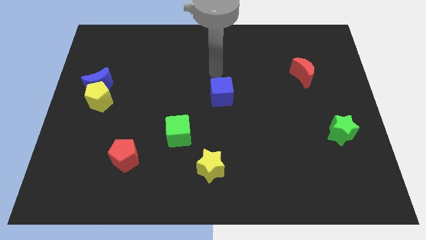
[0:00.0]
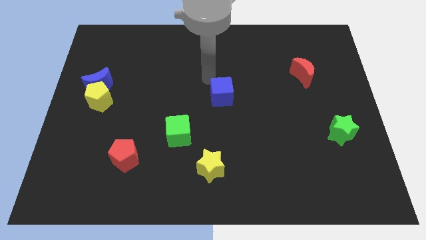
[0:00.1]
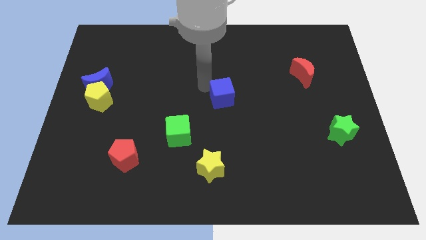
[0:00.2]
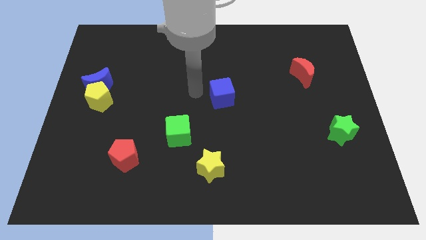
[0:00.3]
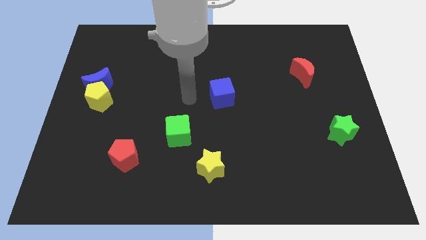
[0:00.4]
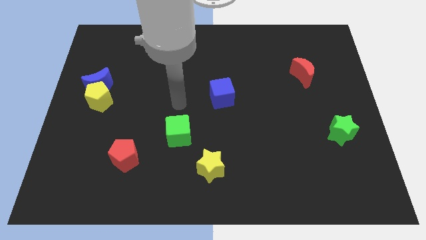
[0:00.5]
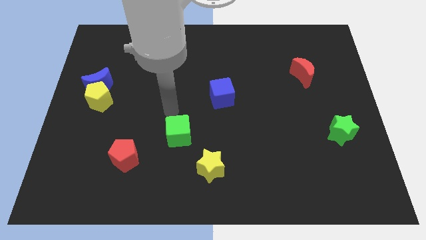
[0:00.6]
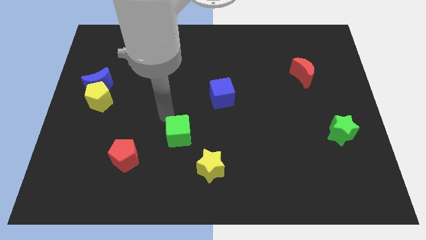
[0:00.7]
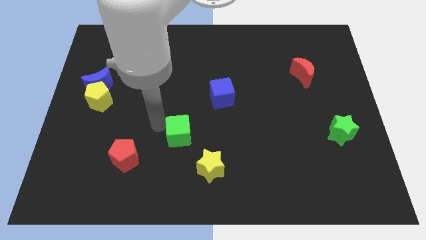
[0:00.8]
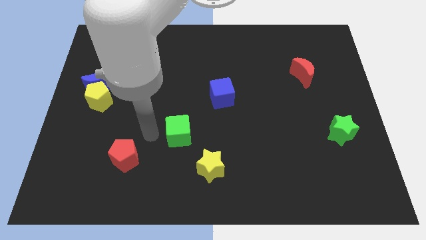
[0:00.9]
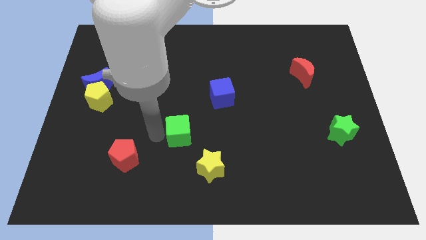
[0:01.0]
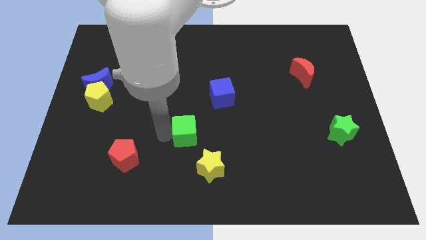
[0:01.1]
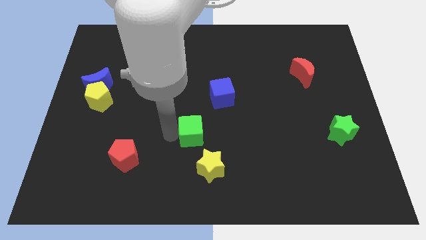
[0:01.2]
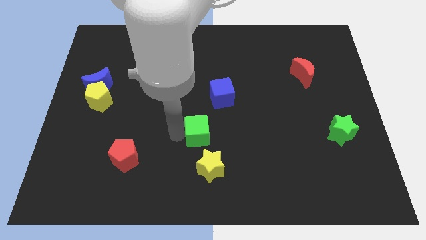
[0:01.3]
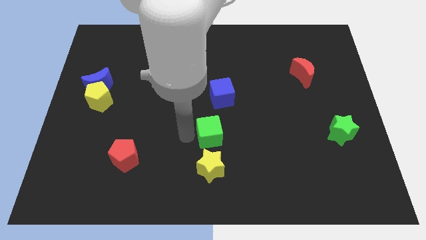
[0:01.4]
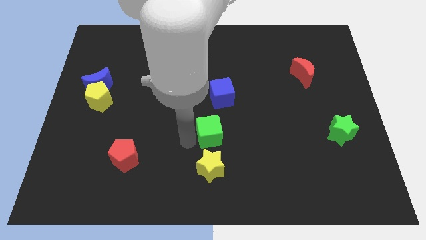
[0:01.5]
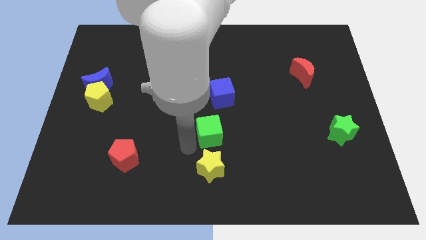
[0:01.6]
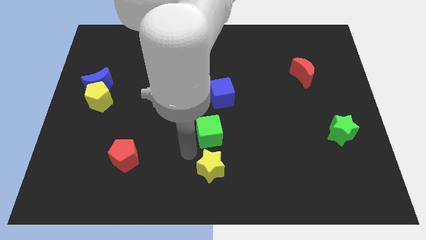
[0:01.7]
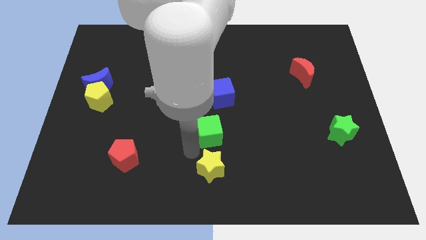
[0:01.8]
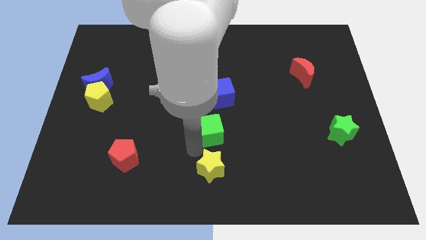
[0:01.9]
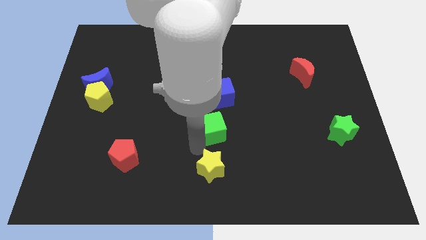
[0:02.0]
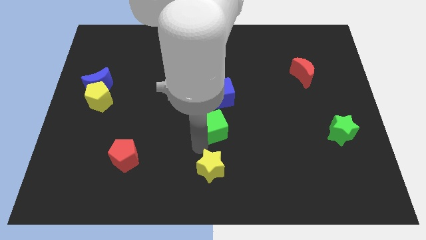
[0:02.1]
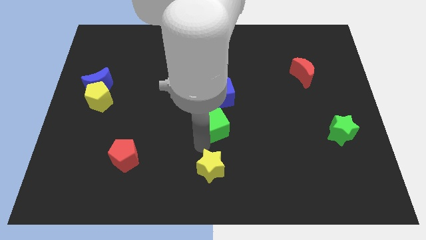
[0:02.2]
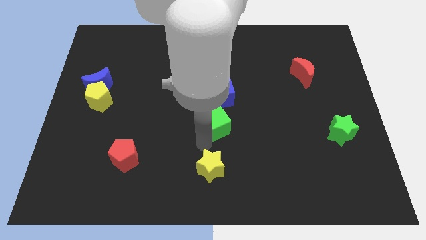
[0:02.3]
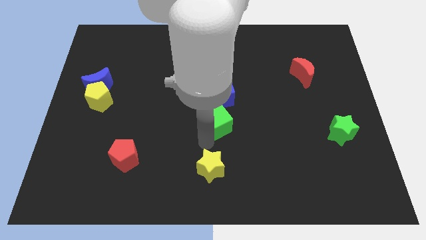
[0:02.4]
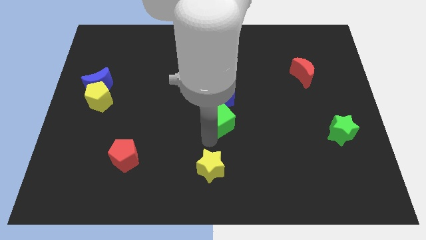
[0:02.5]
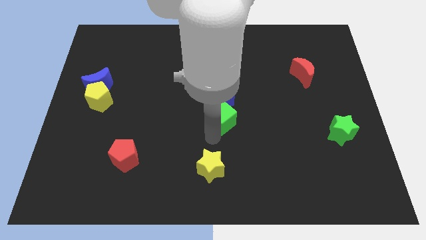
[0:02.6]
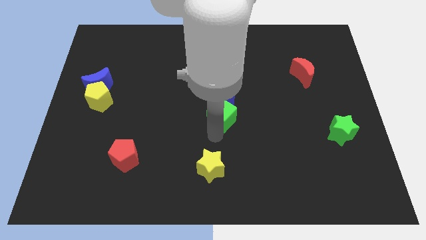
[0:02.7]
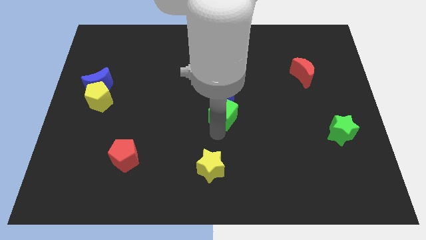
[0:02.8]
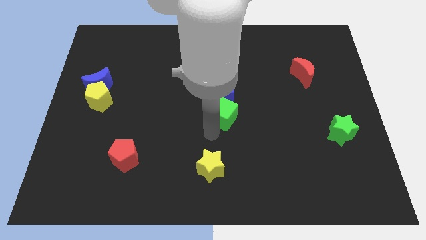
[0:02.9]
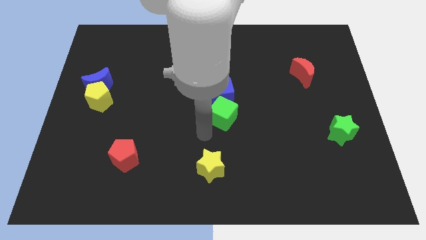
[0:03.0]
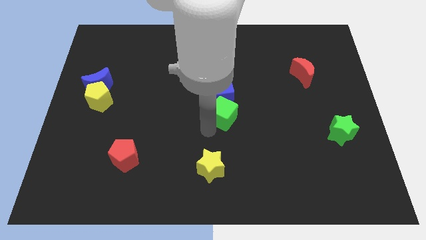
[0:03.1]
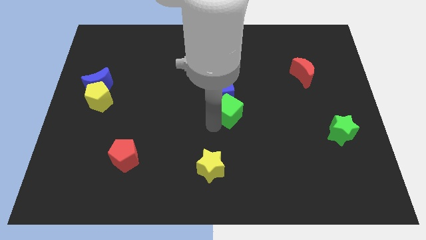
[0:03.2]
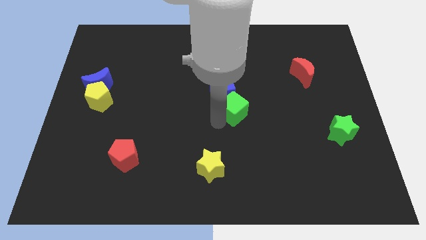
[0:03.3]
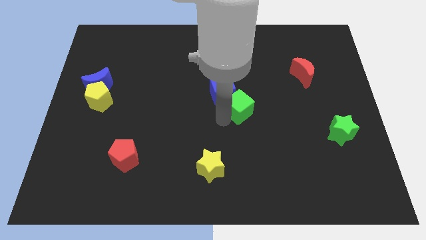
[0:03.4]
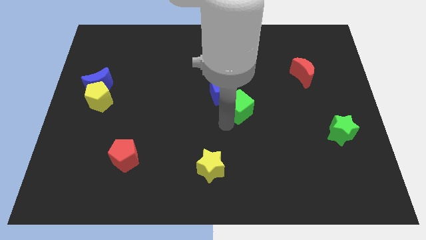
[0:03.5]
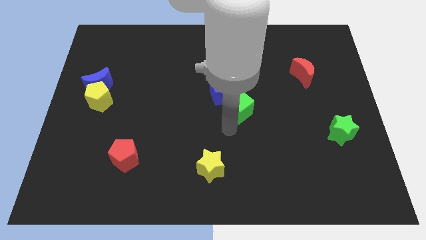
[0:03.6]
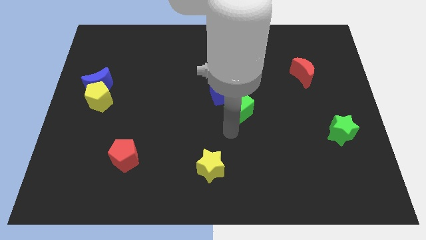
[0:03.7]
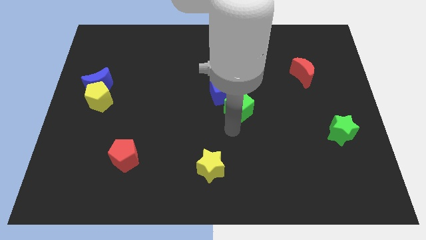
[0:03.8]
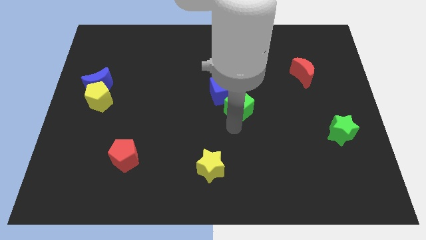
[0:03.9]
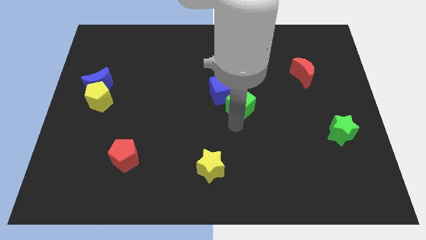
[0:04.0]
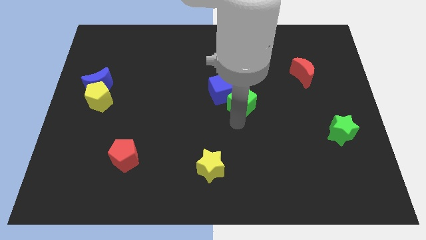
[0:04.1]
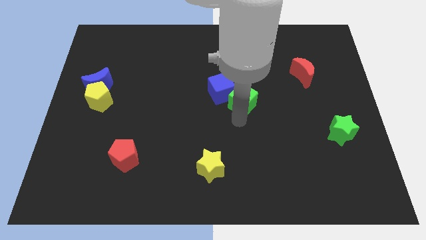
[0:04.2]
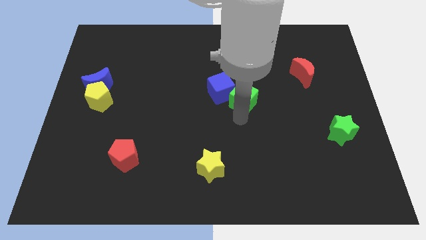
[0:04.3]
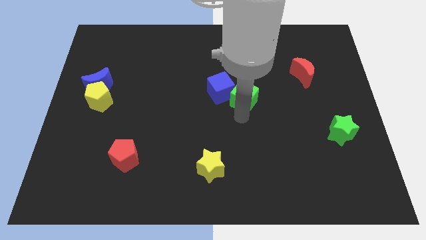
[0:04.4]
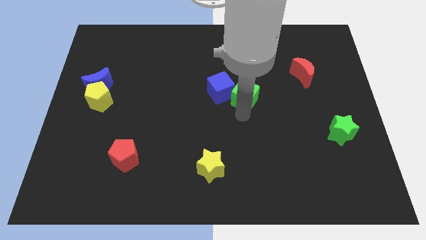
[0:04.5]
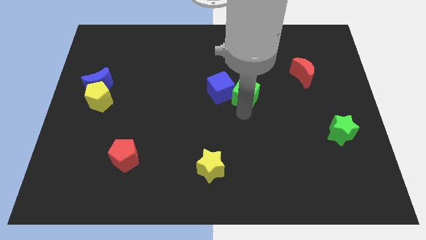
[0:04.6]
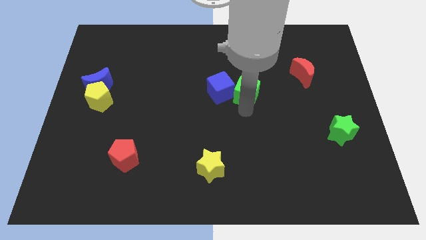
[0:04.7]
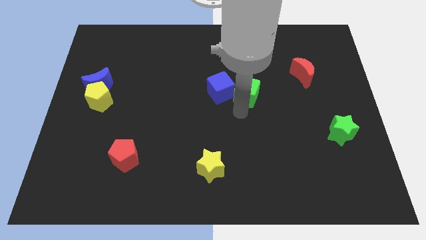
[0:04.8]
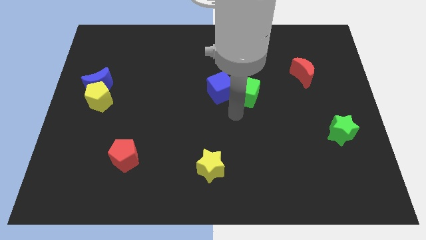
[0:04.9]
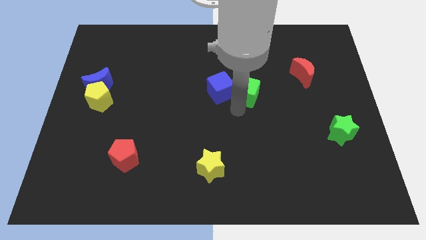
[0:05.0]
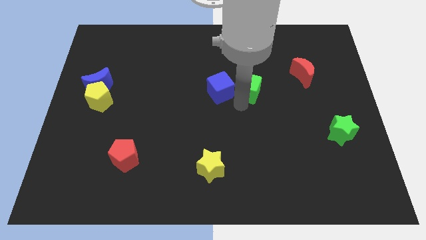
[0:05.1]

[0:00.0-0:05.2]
slide the green cube upwards and to the right diagonally

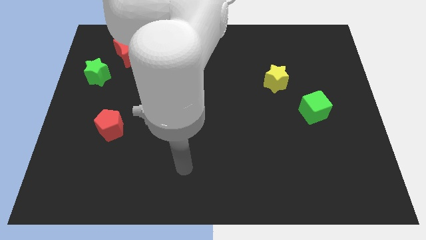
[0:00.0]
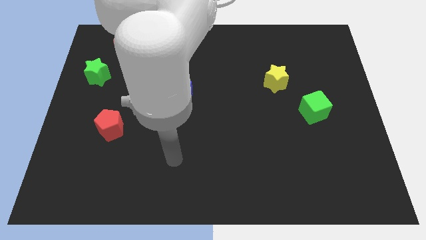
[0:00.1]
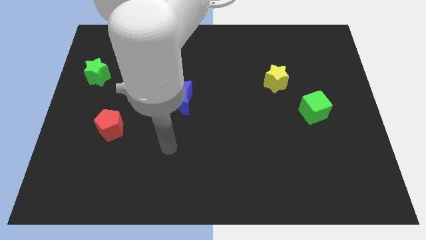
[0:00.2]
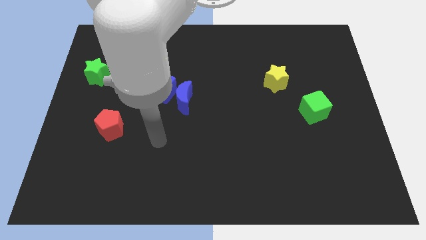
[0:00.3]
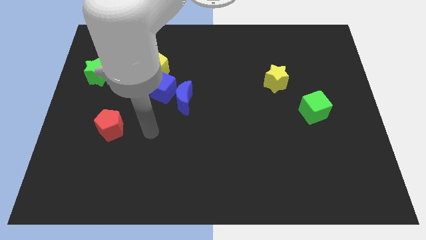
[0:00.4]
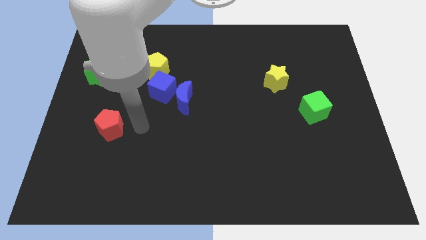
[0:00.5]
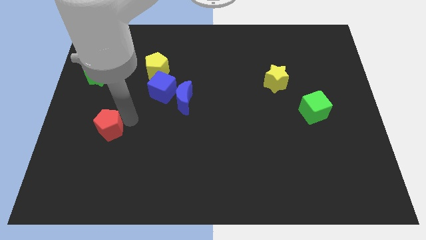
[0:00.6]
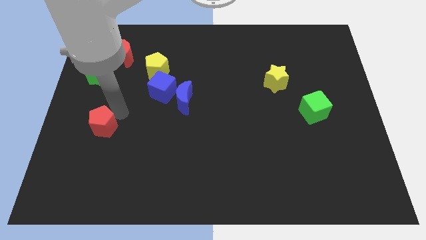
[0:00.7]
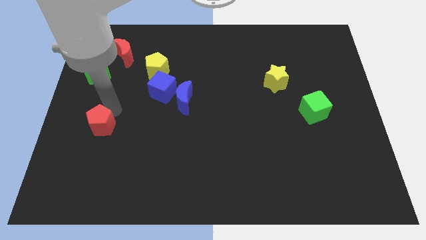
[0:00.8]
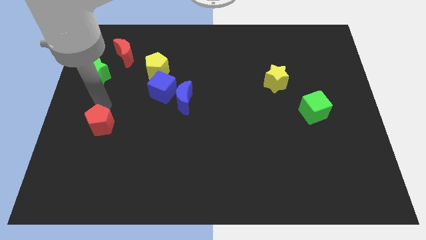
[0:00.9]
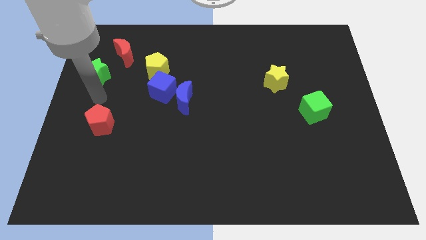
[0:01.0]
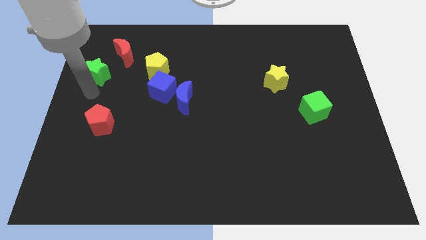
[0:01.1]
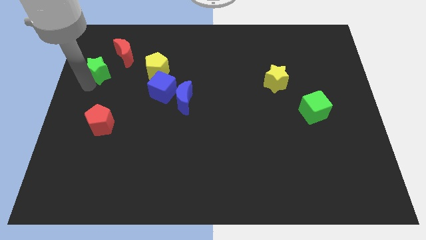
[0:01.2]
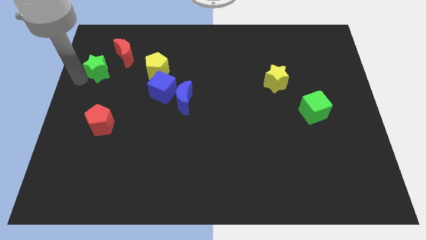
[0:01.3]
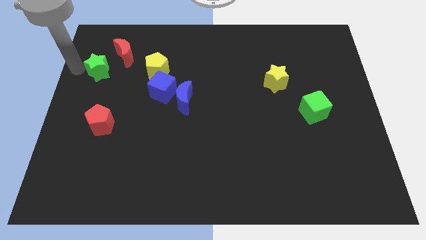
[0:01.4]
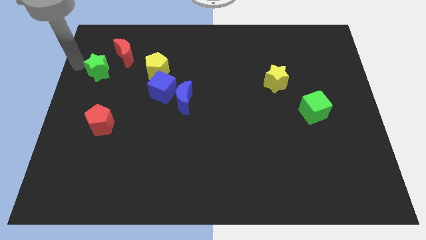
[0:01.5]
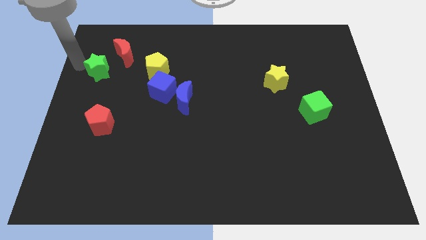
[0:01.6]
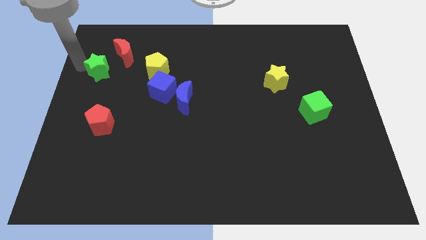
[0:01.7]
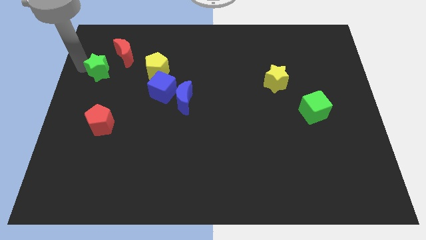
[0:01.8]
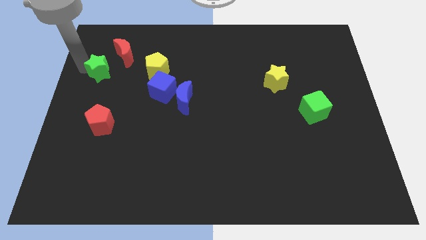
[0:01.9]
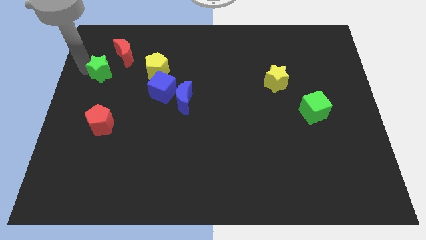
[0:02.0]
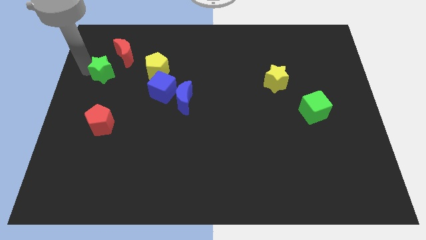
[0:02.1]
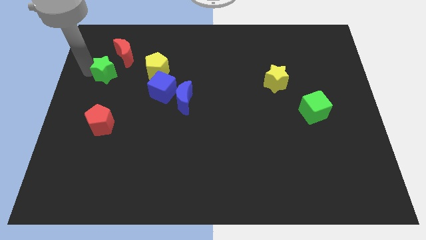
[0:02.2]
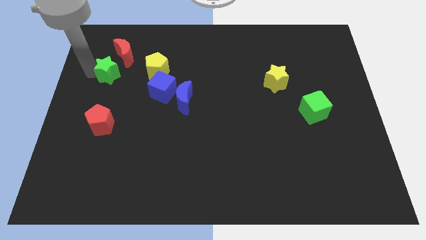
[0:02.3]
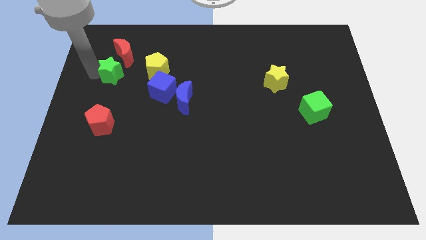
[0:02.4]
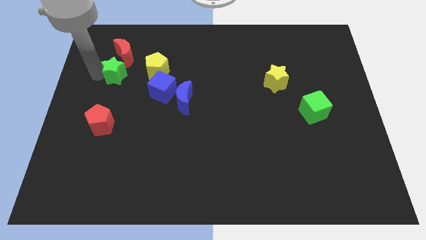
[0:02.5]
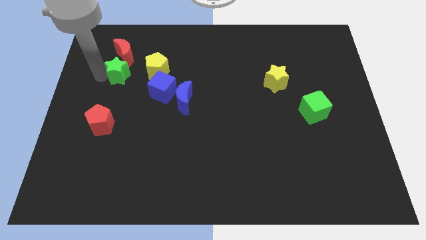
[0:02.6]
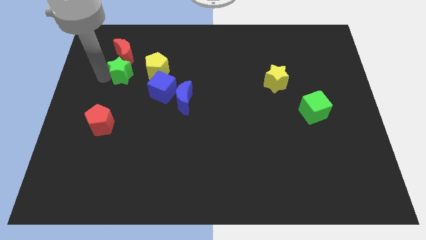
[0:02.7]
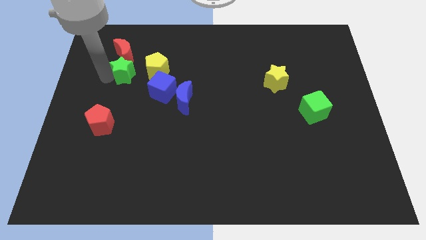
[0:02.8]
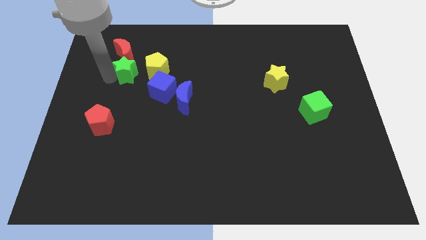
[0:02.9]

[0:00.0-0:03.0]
slide the green star a bit right
